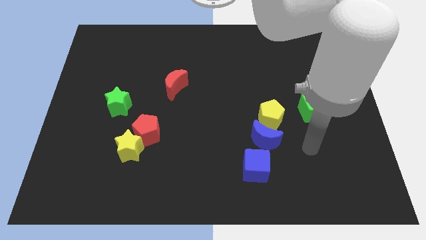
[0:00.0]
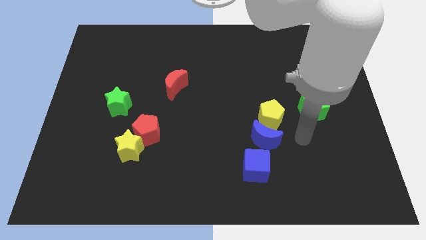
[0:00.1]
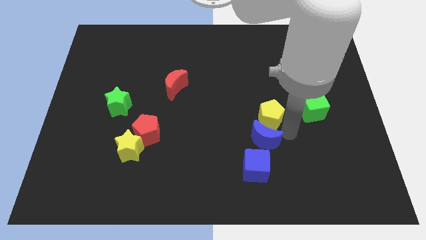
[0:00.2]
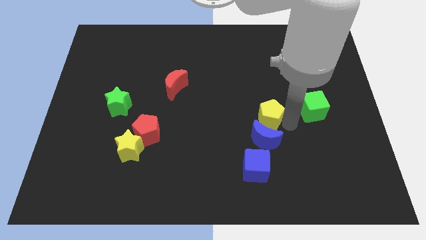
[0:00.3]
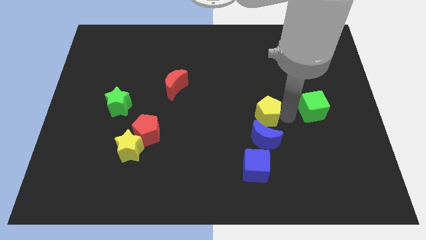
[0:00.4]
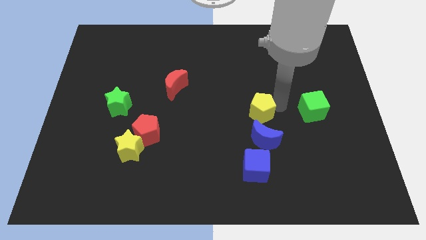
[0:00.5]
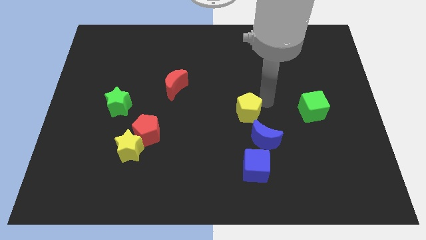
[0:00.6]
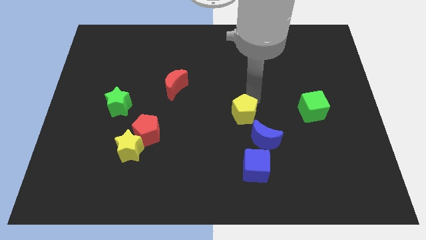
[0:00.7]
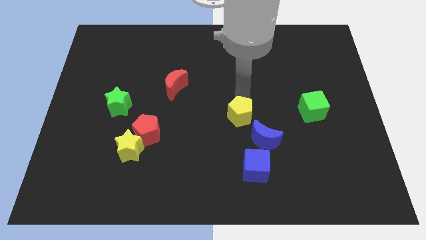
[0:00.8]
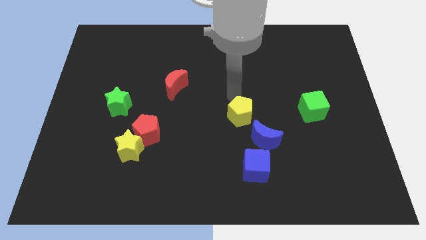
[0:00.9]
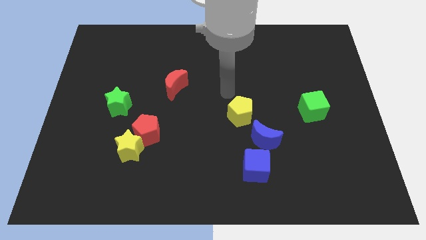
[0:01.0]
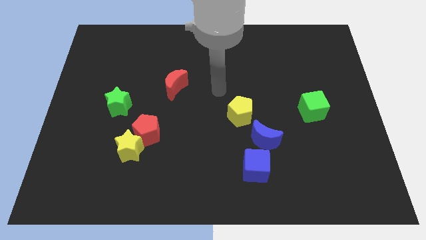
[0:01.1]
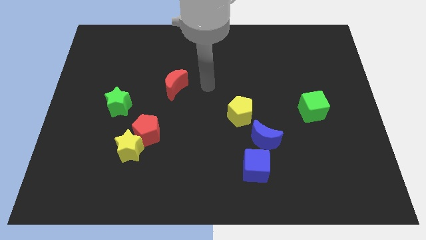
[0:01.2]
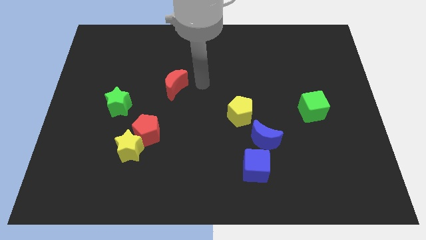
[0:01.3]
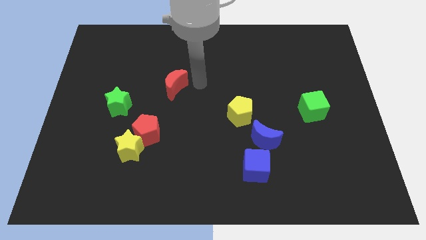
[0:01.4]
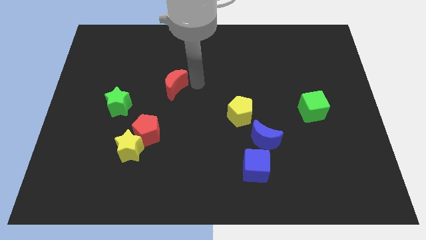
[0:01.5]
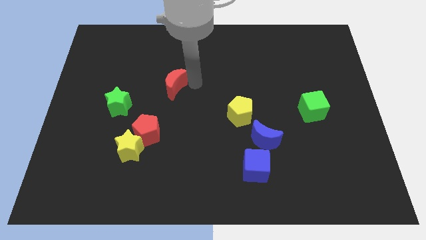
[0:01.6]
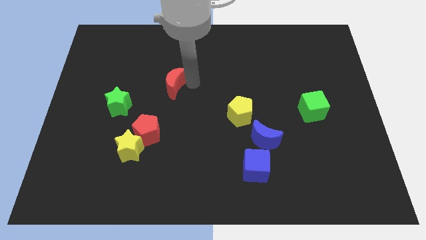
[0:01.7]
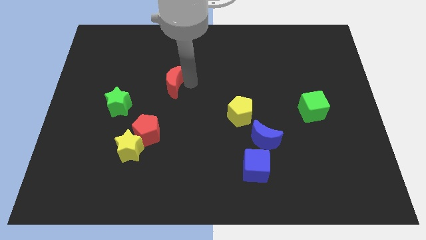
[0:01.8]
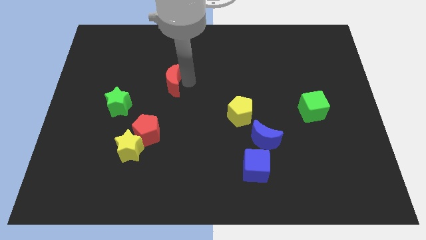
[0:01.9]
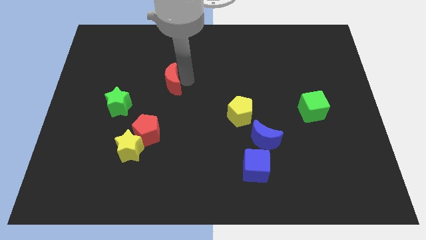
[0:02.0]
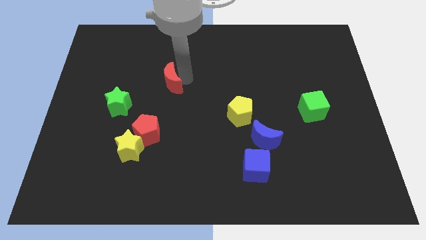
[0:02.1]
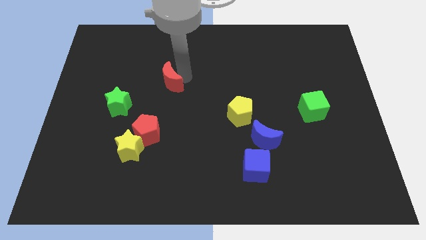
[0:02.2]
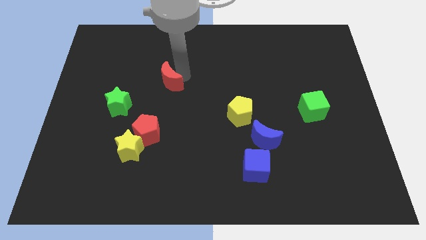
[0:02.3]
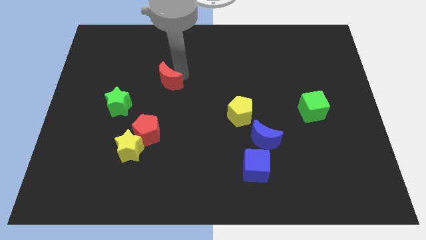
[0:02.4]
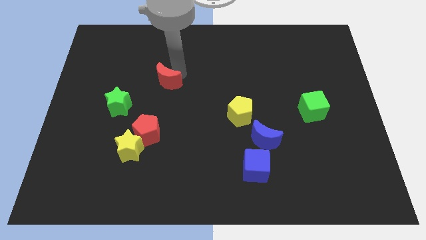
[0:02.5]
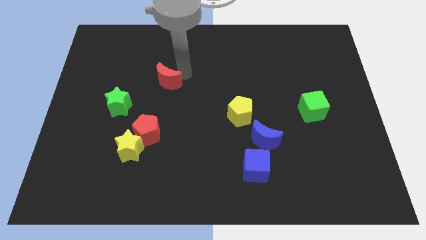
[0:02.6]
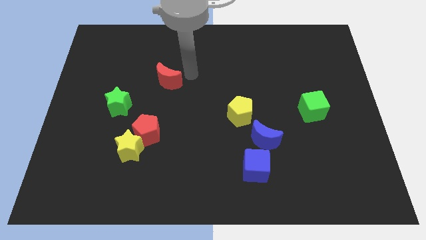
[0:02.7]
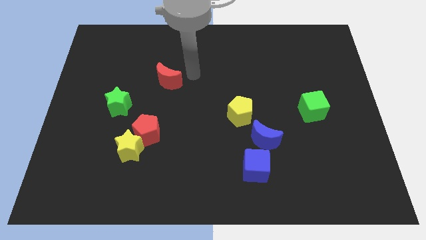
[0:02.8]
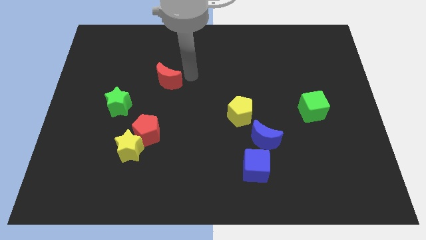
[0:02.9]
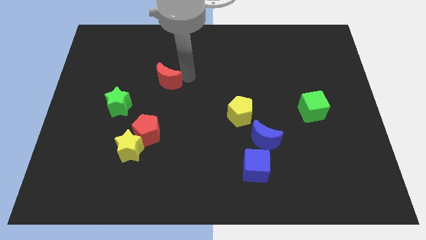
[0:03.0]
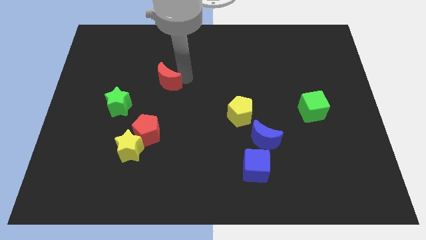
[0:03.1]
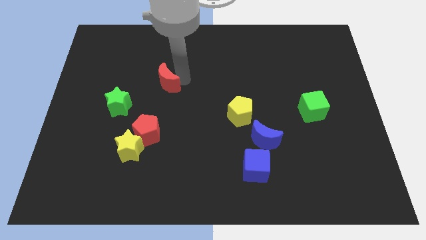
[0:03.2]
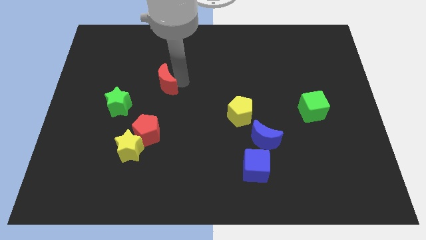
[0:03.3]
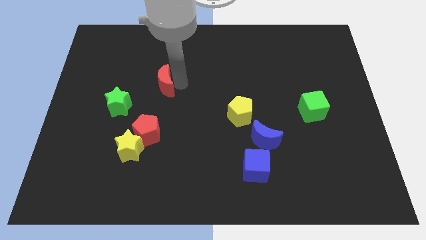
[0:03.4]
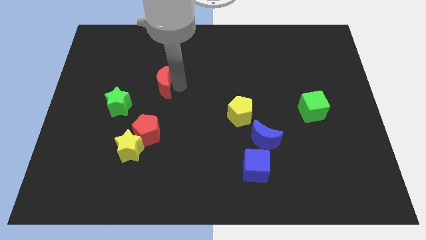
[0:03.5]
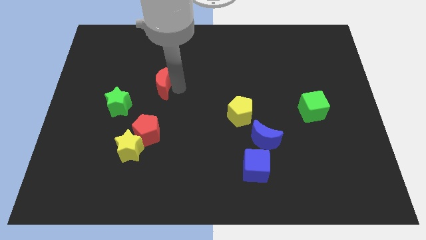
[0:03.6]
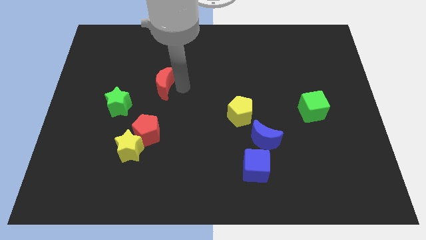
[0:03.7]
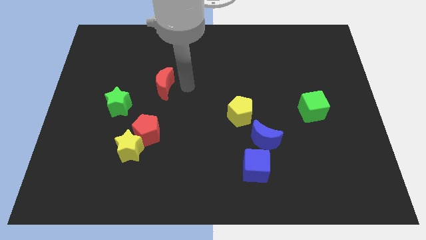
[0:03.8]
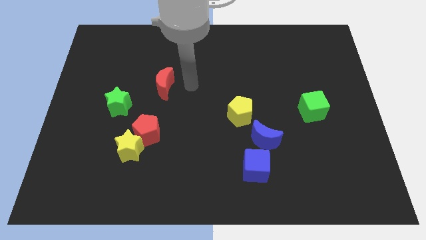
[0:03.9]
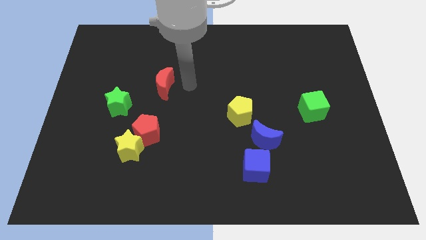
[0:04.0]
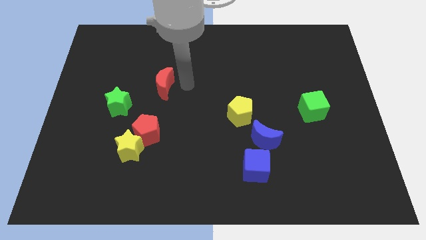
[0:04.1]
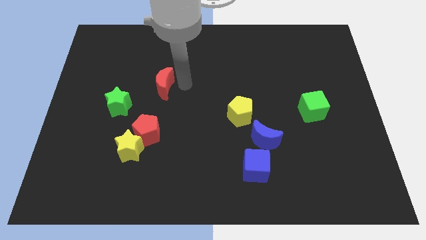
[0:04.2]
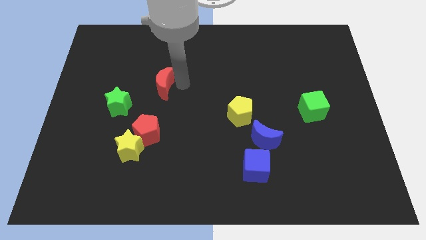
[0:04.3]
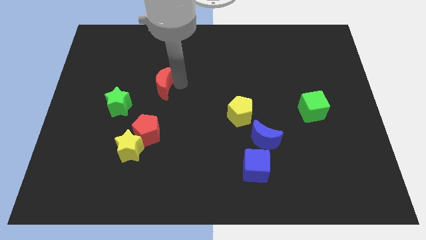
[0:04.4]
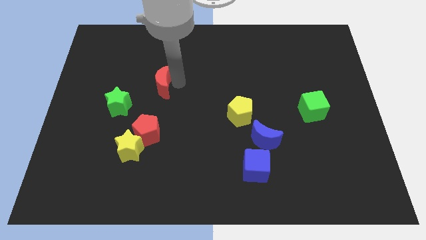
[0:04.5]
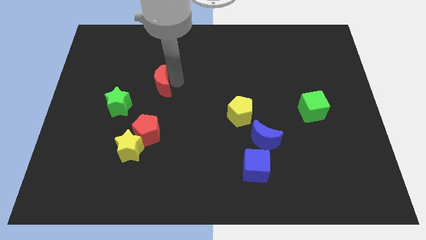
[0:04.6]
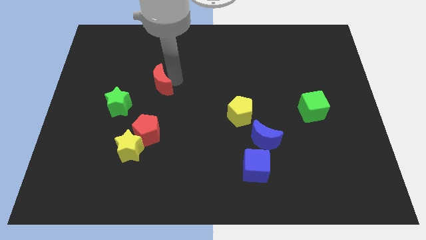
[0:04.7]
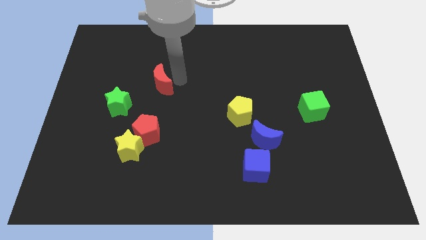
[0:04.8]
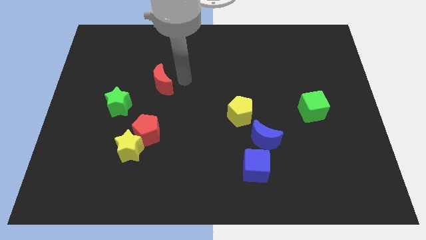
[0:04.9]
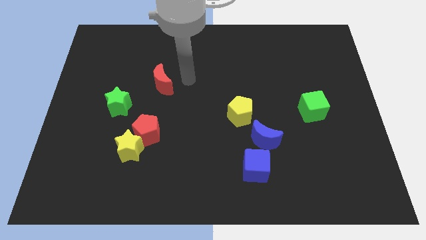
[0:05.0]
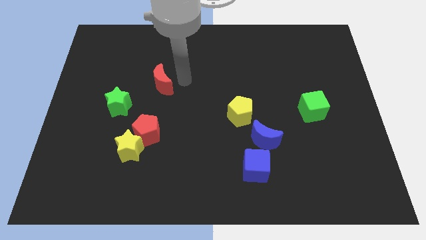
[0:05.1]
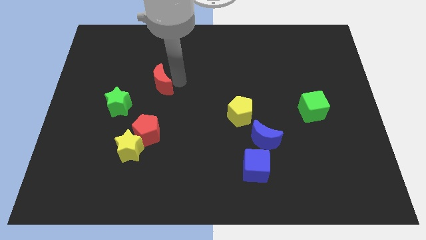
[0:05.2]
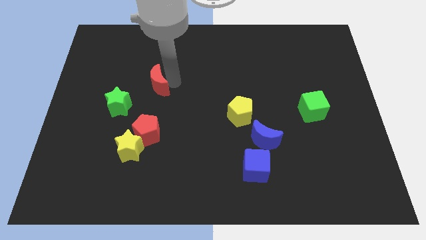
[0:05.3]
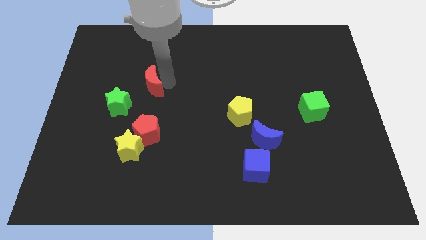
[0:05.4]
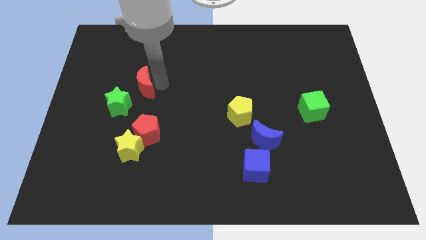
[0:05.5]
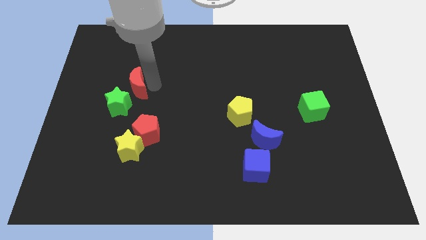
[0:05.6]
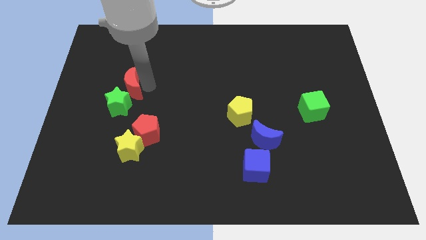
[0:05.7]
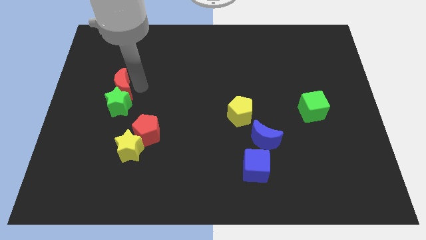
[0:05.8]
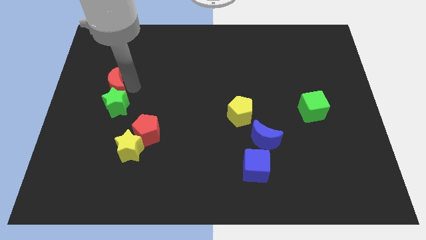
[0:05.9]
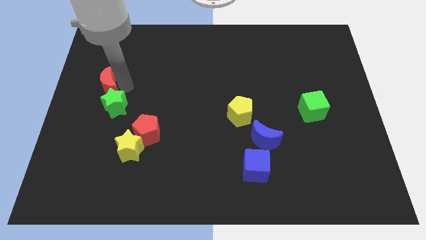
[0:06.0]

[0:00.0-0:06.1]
move the red moon to the center left
